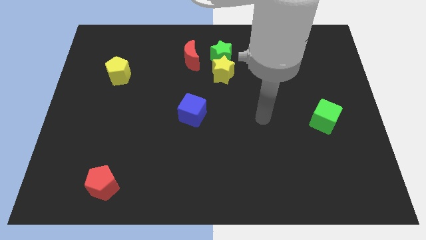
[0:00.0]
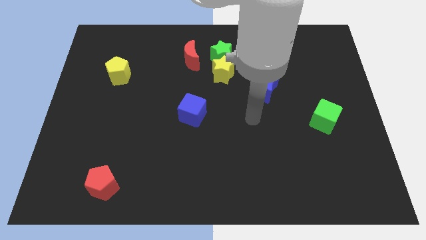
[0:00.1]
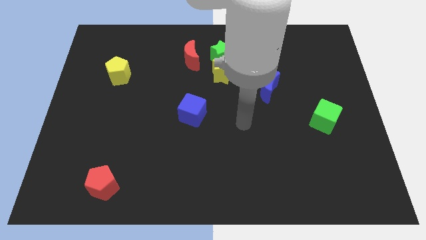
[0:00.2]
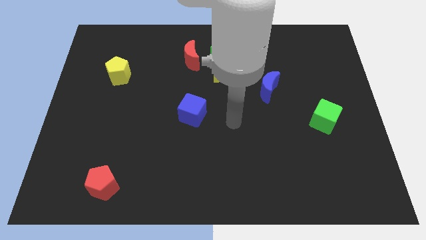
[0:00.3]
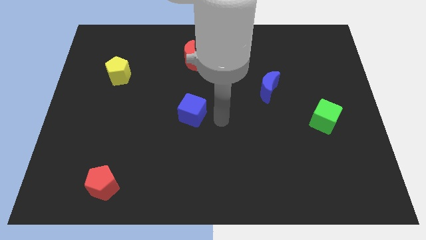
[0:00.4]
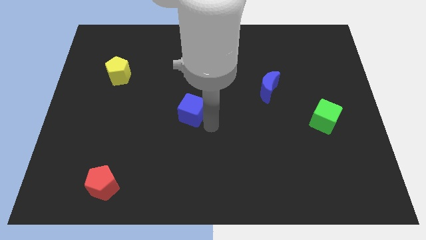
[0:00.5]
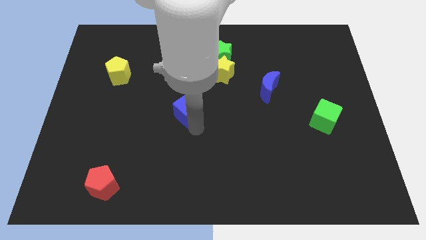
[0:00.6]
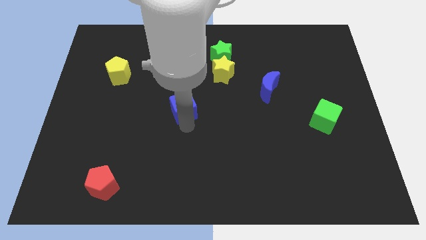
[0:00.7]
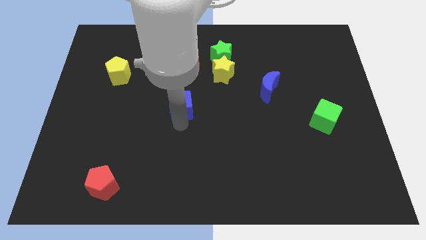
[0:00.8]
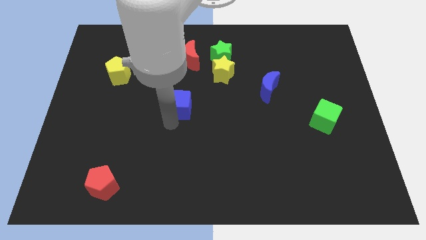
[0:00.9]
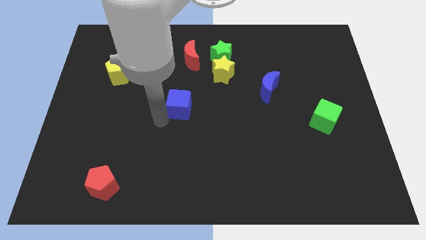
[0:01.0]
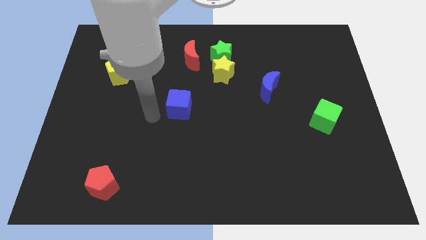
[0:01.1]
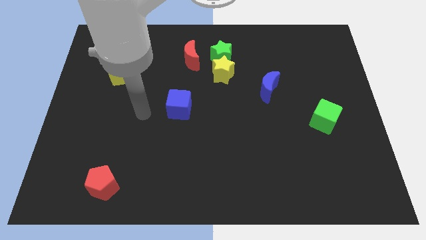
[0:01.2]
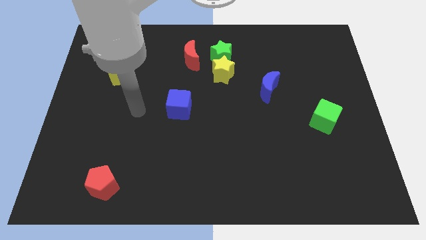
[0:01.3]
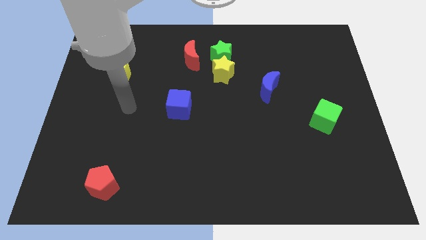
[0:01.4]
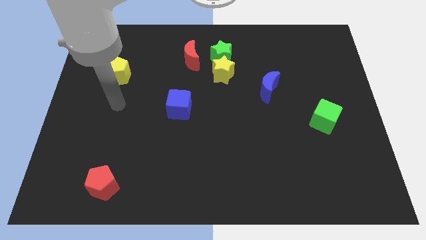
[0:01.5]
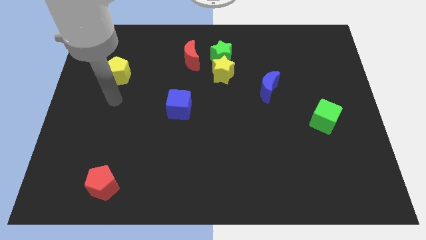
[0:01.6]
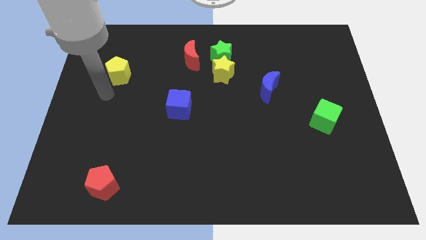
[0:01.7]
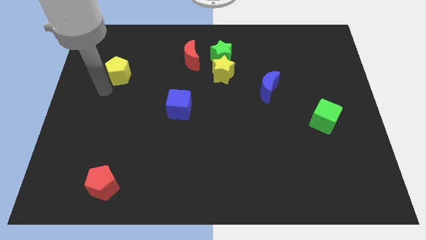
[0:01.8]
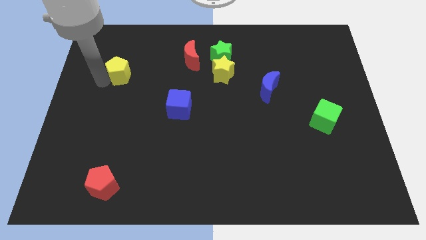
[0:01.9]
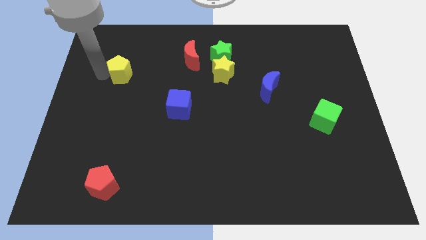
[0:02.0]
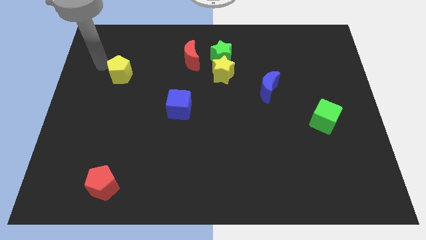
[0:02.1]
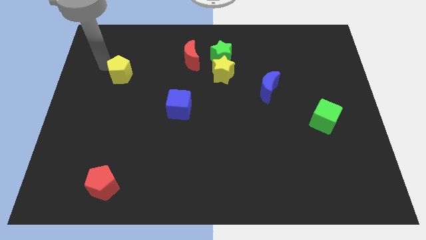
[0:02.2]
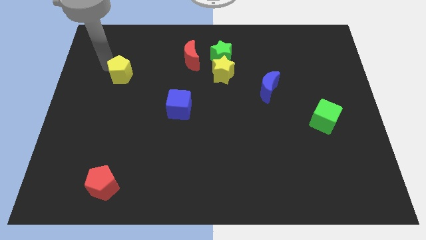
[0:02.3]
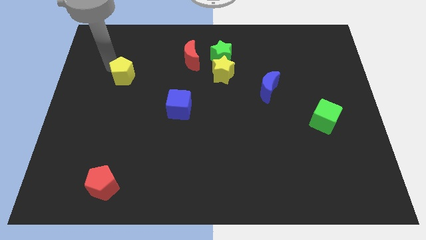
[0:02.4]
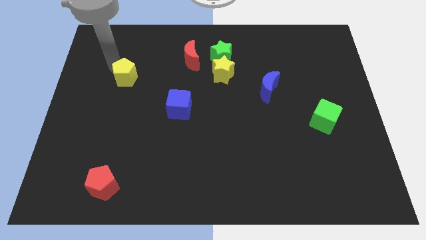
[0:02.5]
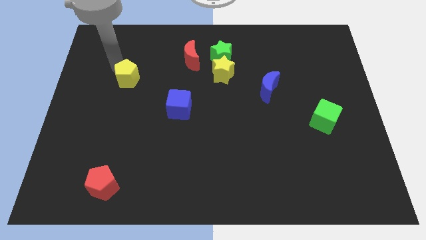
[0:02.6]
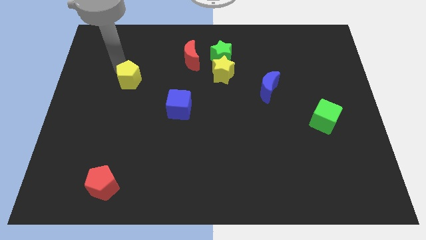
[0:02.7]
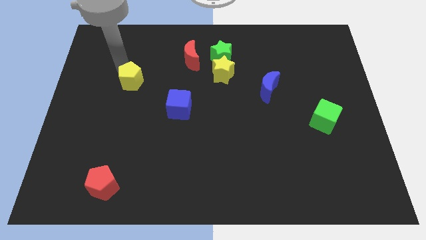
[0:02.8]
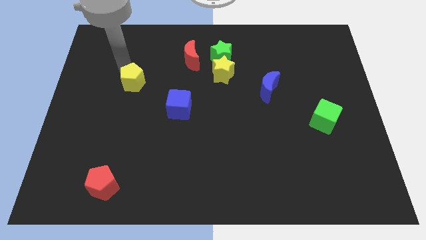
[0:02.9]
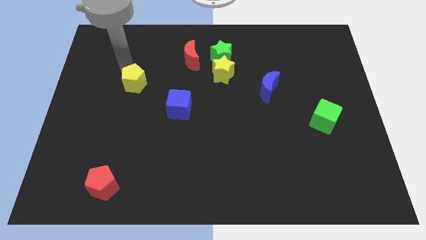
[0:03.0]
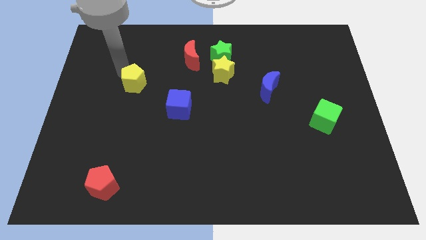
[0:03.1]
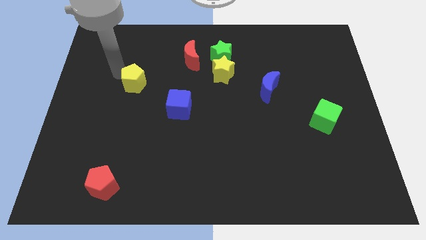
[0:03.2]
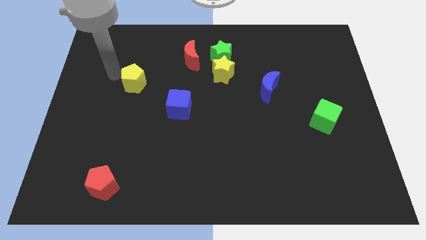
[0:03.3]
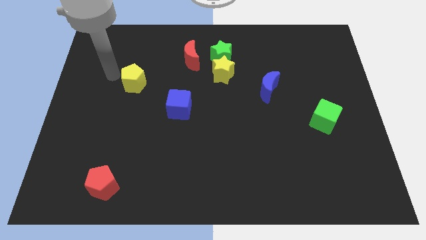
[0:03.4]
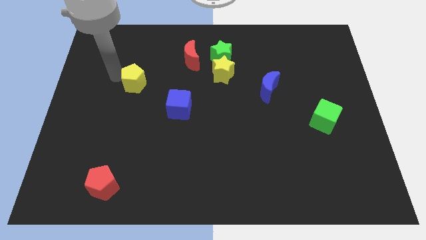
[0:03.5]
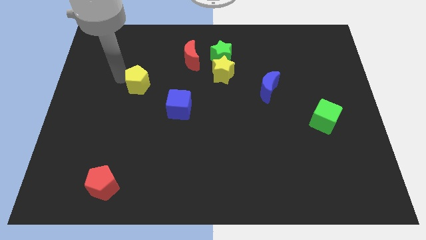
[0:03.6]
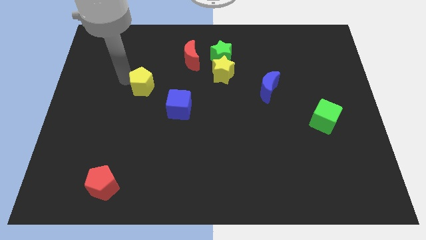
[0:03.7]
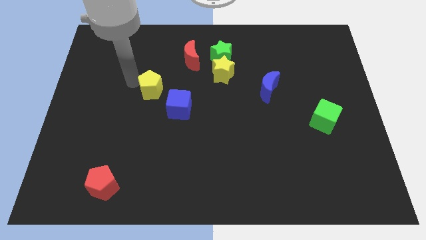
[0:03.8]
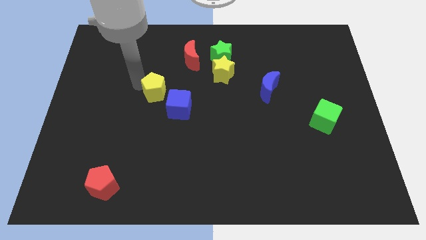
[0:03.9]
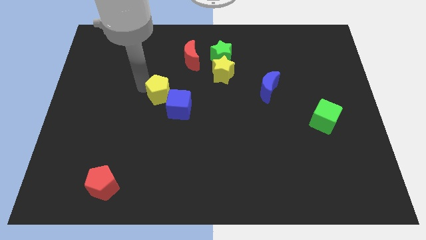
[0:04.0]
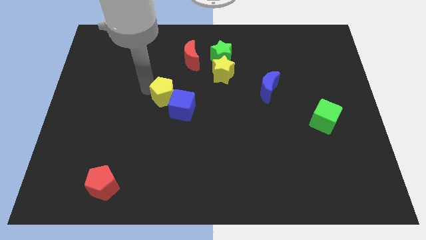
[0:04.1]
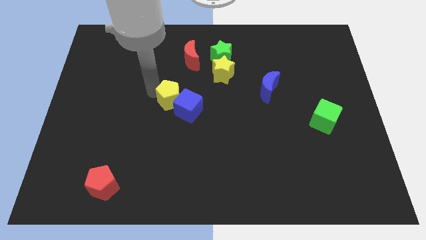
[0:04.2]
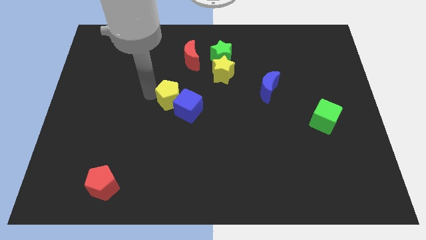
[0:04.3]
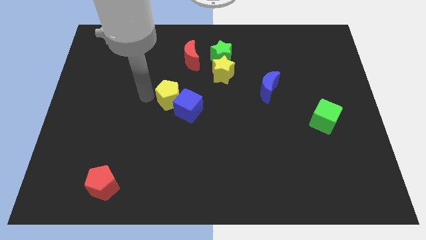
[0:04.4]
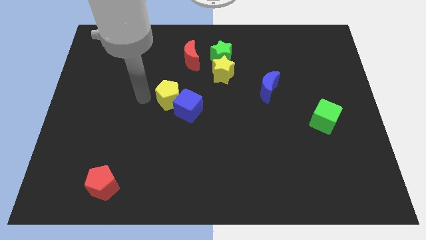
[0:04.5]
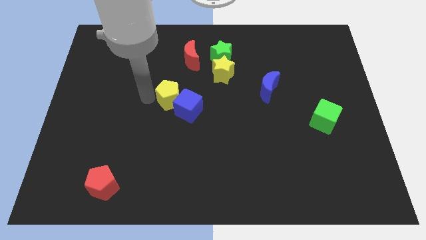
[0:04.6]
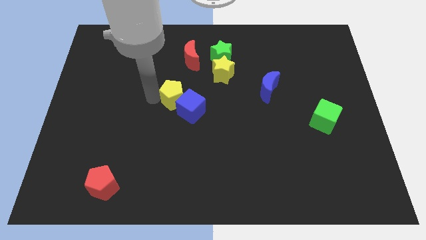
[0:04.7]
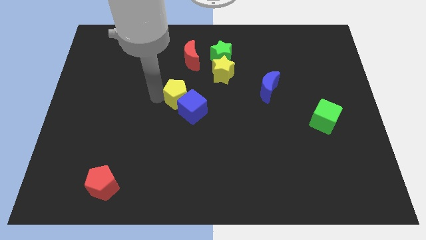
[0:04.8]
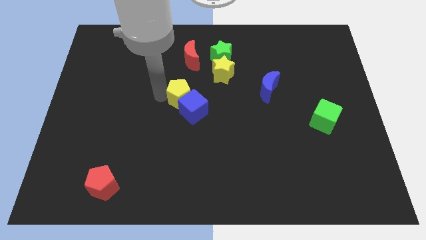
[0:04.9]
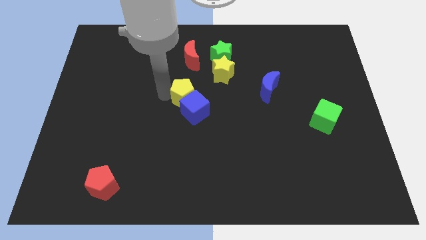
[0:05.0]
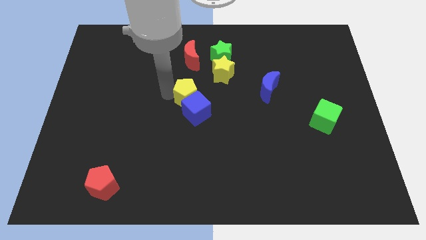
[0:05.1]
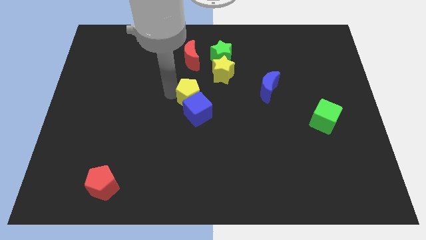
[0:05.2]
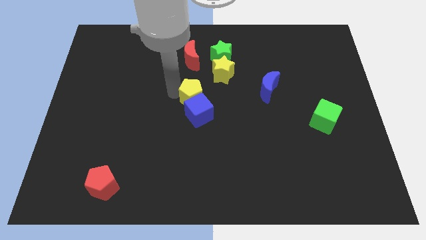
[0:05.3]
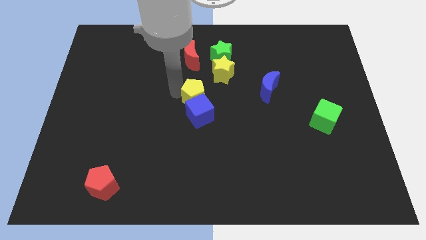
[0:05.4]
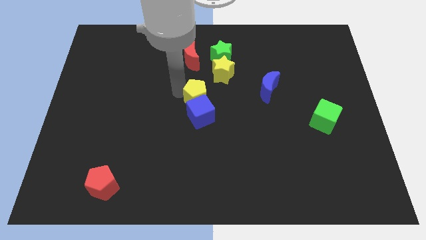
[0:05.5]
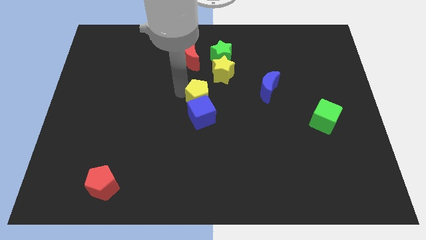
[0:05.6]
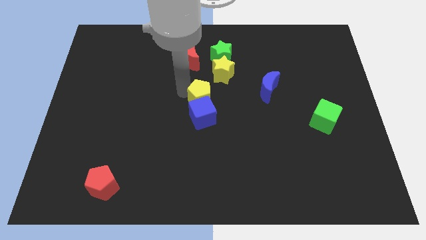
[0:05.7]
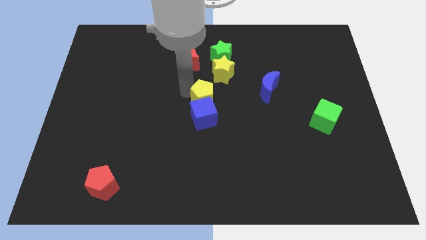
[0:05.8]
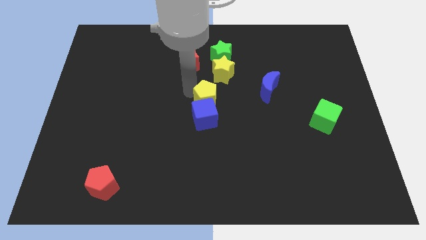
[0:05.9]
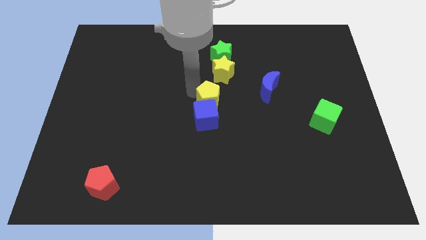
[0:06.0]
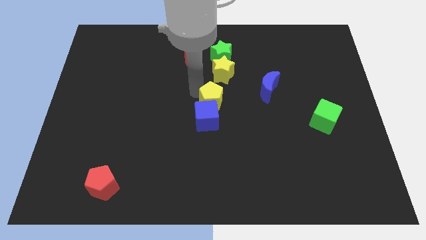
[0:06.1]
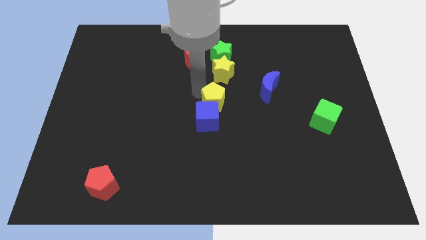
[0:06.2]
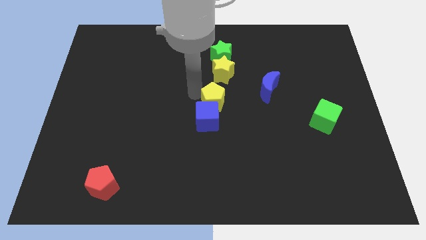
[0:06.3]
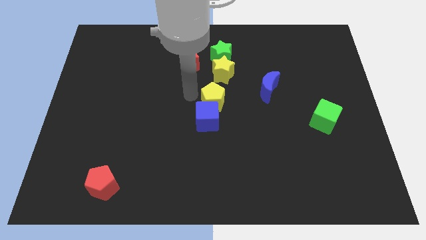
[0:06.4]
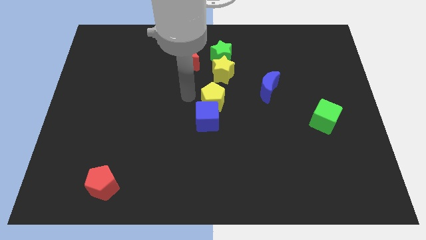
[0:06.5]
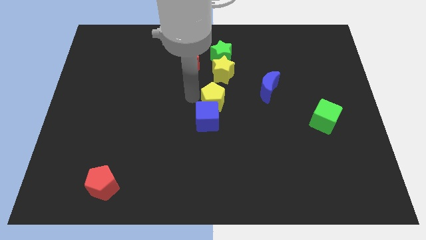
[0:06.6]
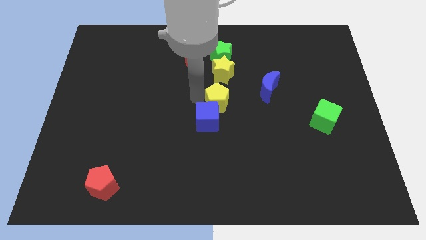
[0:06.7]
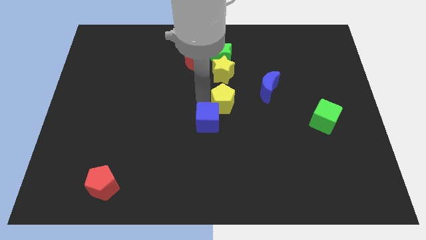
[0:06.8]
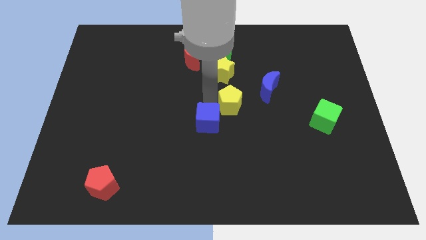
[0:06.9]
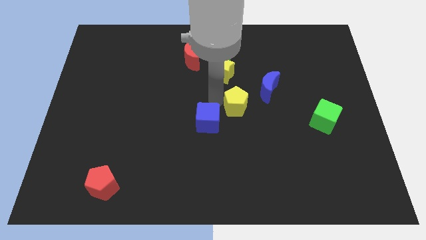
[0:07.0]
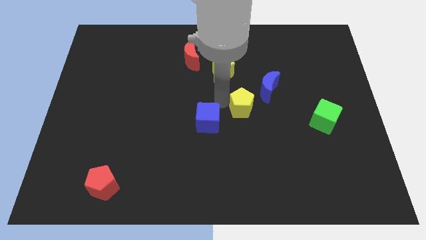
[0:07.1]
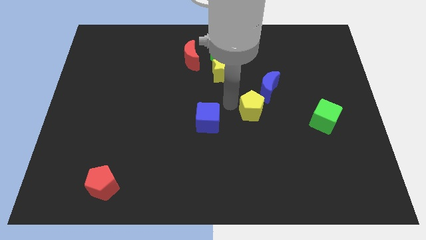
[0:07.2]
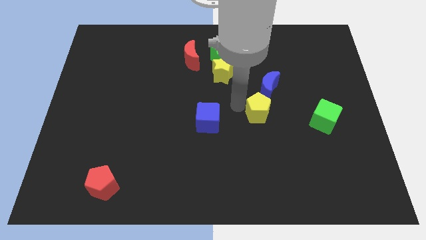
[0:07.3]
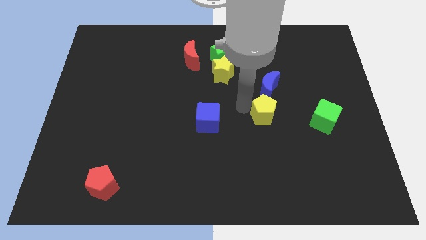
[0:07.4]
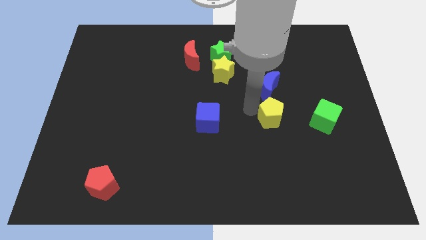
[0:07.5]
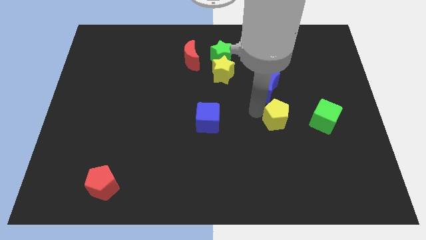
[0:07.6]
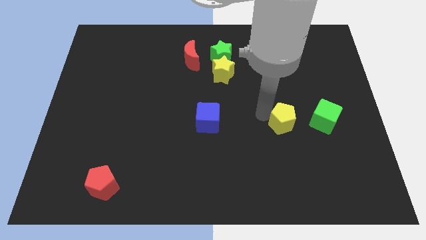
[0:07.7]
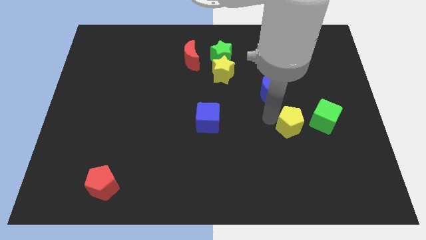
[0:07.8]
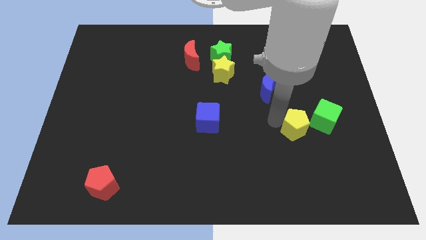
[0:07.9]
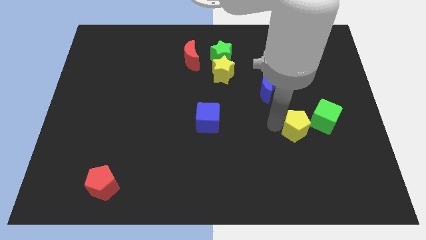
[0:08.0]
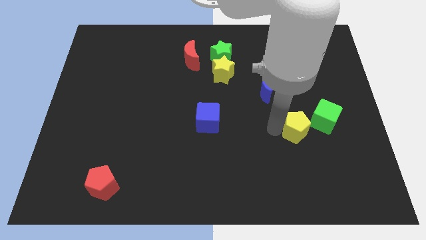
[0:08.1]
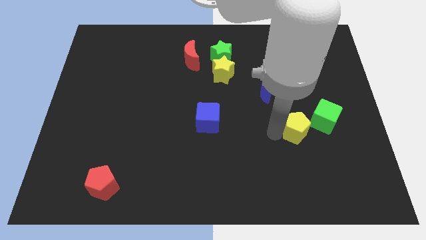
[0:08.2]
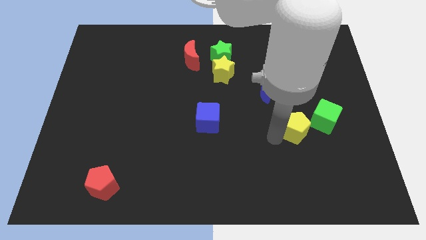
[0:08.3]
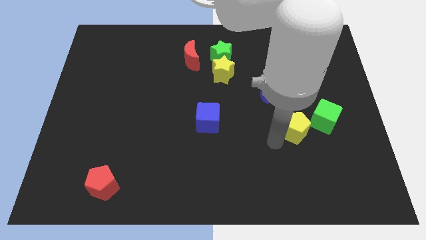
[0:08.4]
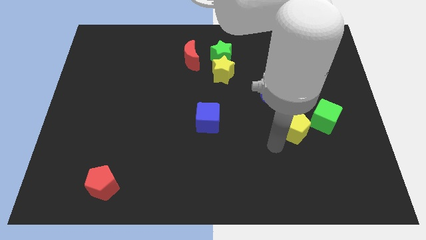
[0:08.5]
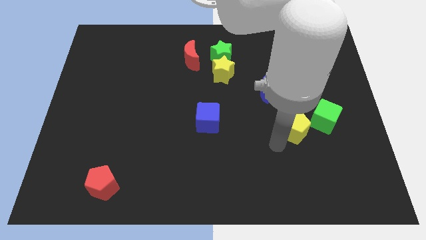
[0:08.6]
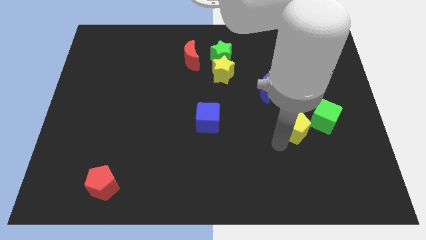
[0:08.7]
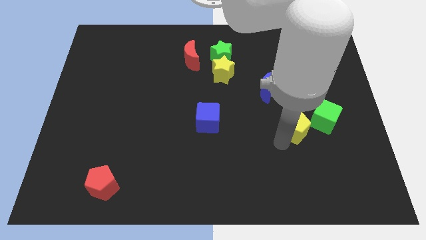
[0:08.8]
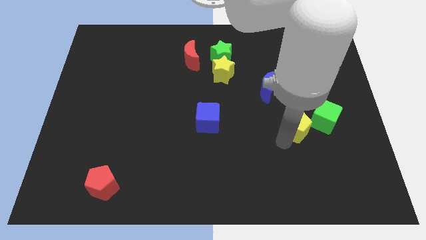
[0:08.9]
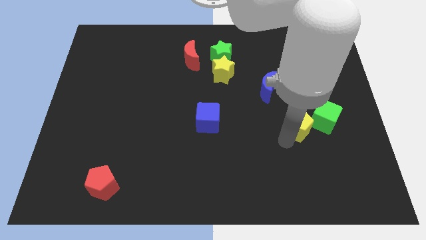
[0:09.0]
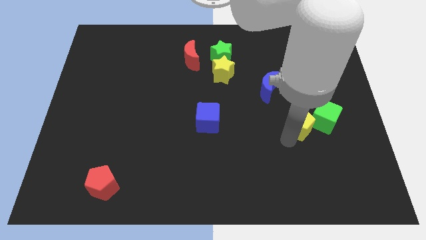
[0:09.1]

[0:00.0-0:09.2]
push the yellow pentagon close to the green cube
